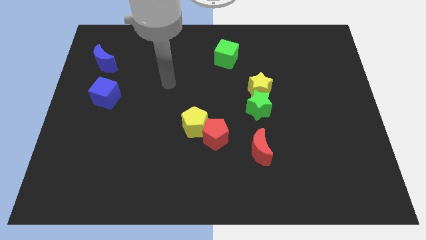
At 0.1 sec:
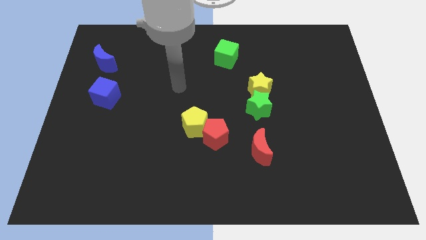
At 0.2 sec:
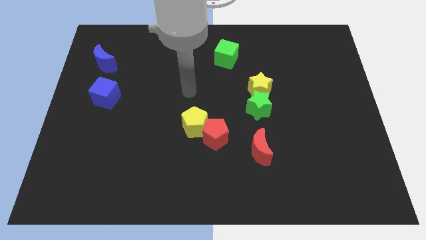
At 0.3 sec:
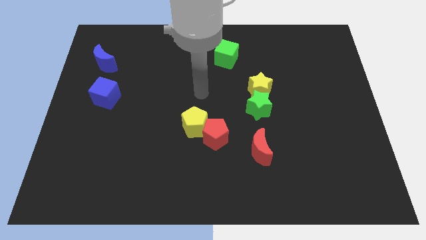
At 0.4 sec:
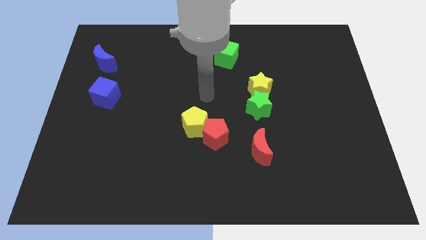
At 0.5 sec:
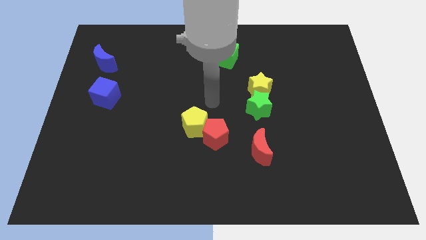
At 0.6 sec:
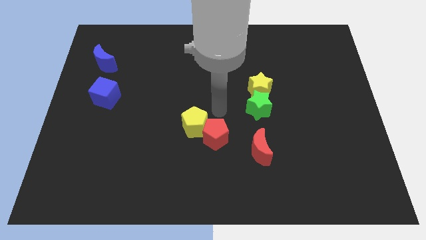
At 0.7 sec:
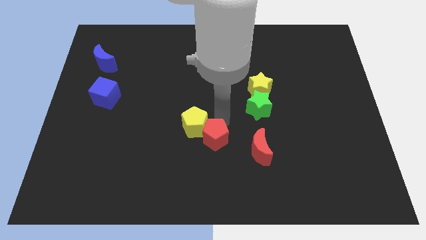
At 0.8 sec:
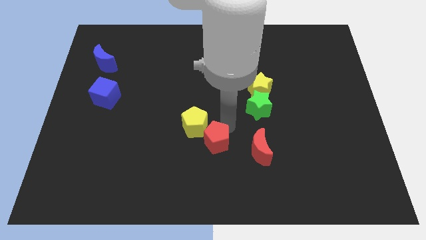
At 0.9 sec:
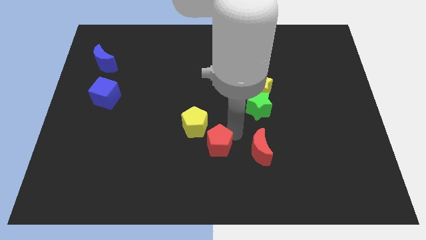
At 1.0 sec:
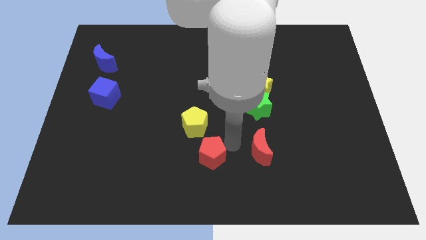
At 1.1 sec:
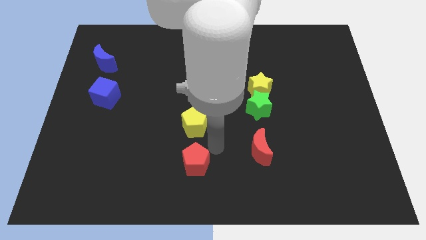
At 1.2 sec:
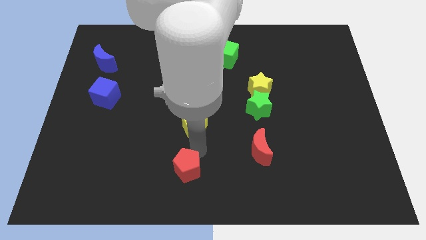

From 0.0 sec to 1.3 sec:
separate the yellow pentagon from the red pentagon

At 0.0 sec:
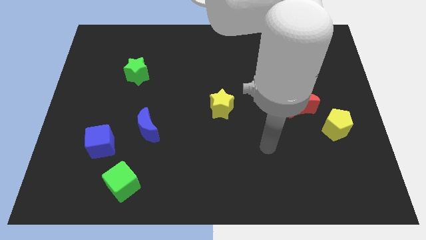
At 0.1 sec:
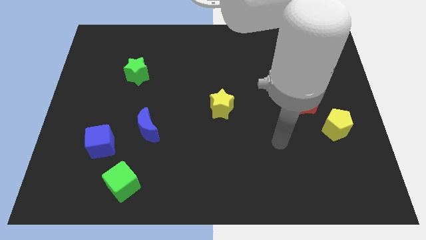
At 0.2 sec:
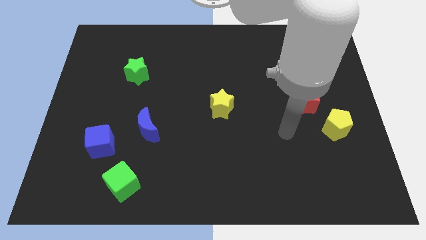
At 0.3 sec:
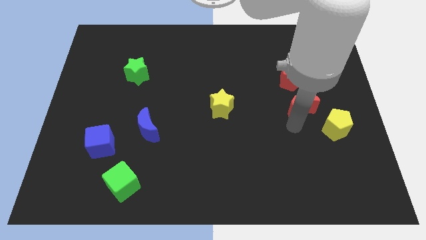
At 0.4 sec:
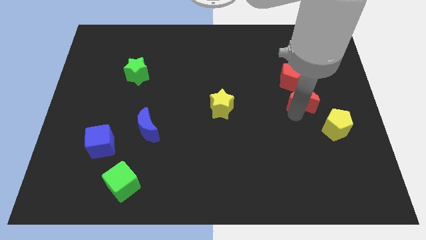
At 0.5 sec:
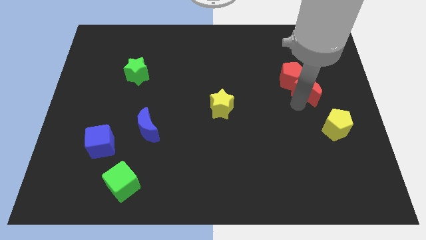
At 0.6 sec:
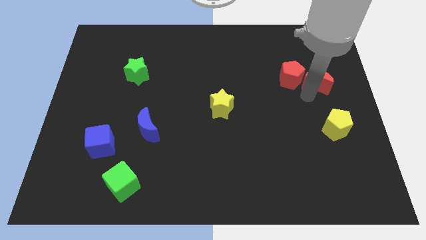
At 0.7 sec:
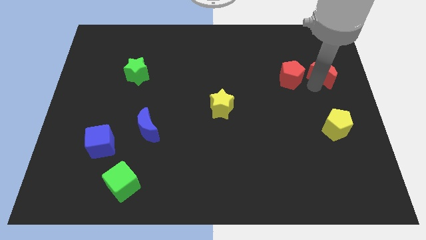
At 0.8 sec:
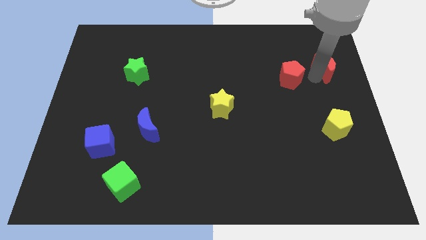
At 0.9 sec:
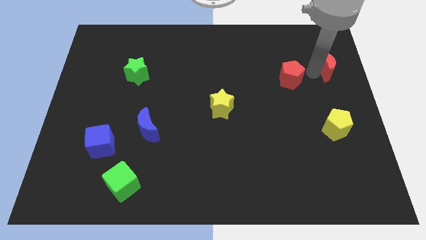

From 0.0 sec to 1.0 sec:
move the red pentagon away from the red moon

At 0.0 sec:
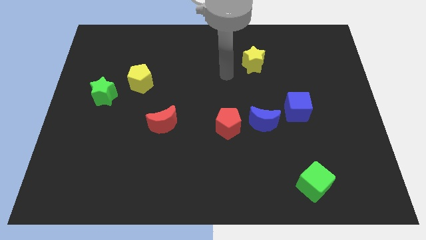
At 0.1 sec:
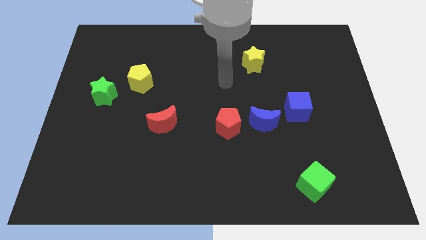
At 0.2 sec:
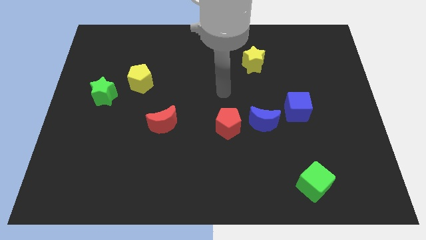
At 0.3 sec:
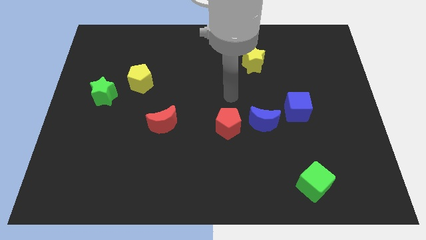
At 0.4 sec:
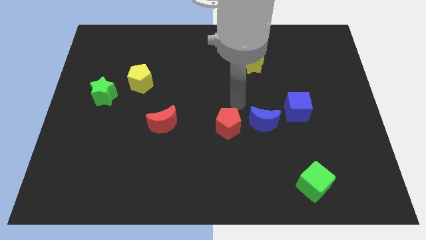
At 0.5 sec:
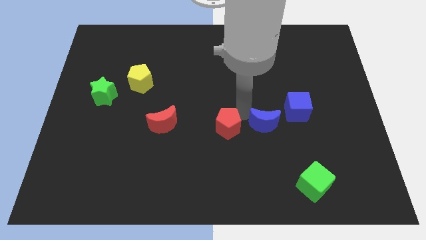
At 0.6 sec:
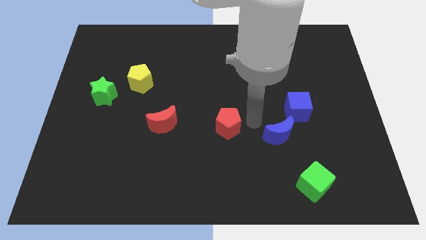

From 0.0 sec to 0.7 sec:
separate the red pentagon from the blue moon

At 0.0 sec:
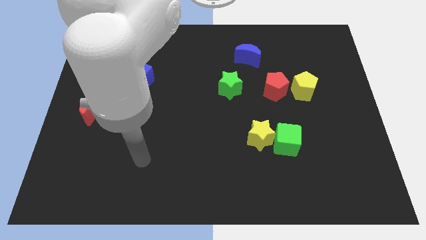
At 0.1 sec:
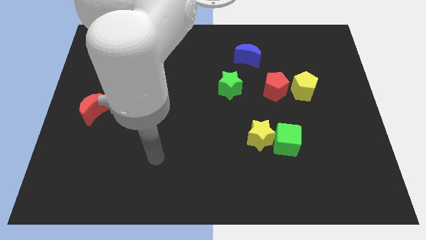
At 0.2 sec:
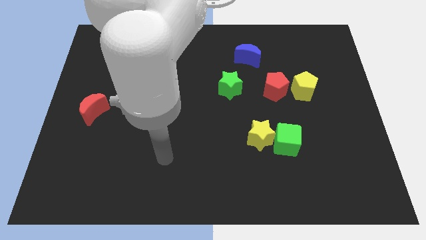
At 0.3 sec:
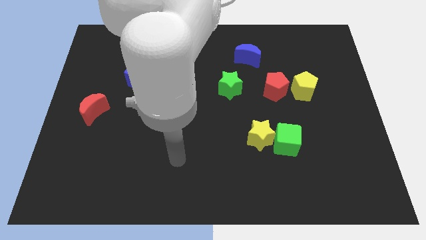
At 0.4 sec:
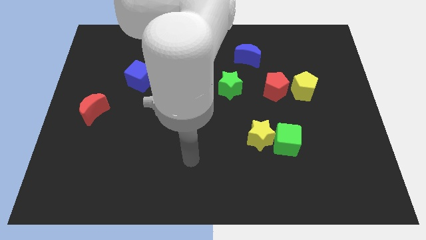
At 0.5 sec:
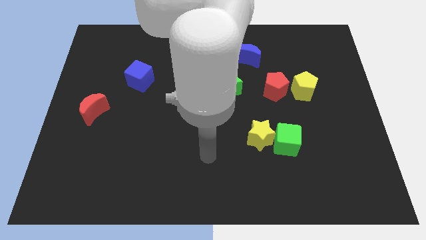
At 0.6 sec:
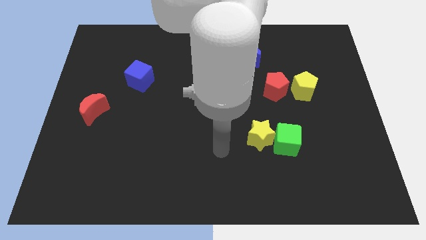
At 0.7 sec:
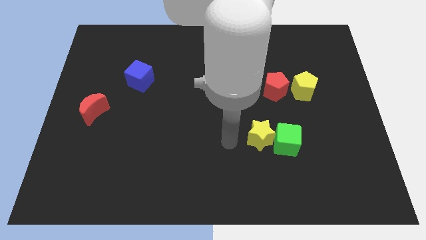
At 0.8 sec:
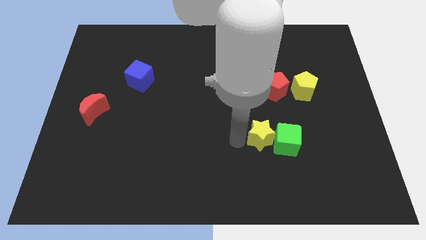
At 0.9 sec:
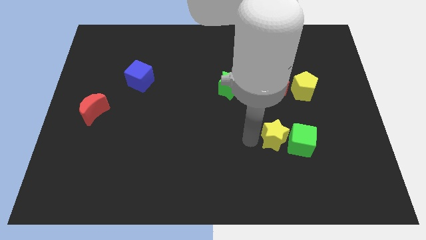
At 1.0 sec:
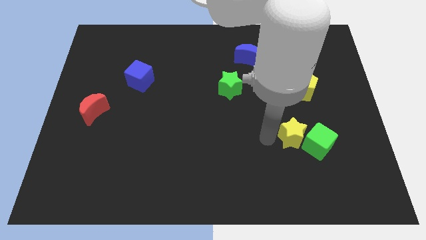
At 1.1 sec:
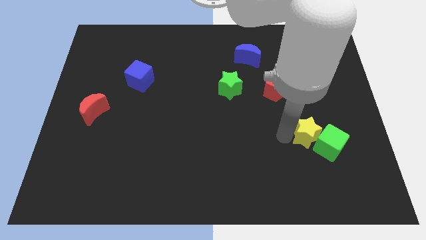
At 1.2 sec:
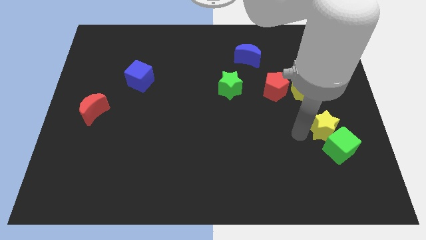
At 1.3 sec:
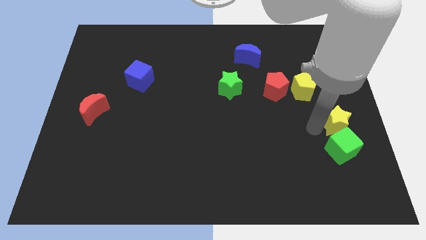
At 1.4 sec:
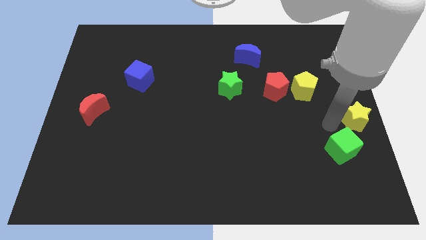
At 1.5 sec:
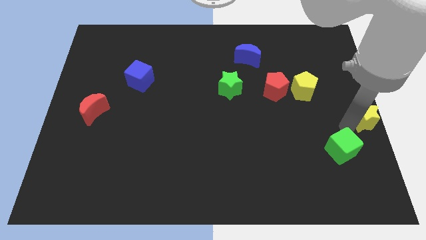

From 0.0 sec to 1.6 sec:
pull the green cube apart from the yellow star

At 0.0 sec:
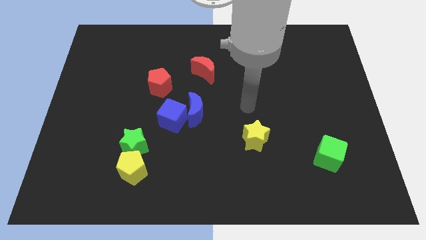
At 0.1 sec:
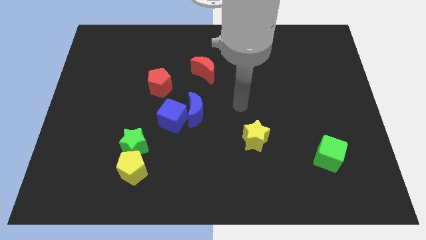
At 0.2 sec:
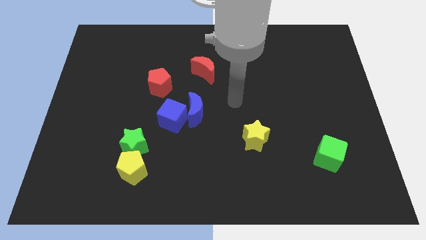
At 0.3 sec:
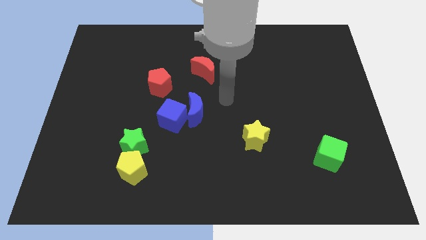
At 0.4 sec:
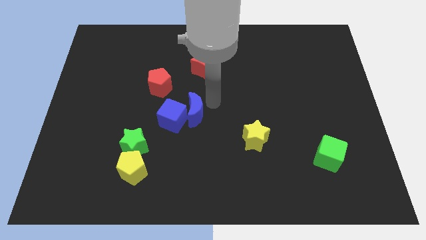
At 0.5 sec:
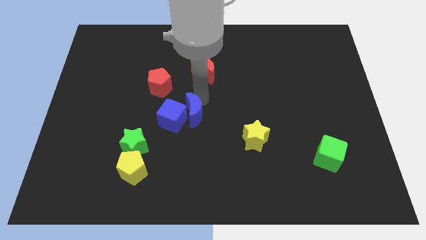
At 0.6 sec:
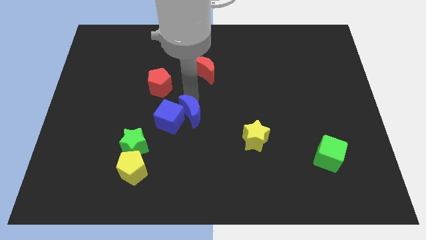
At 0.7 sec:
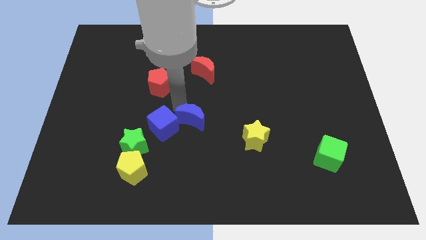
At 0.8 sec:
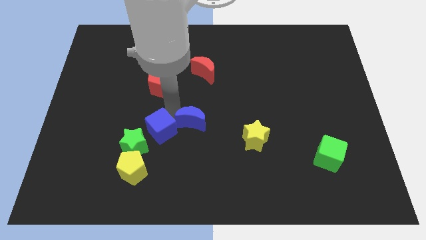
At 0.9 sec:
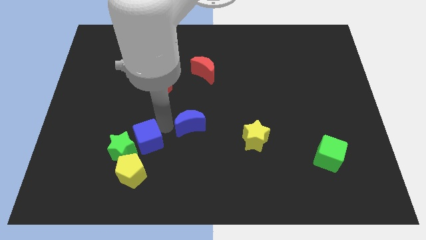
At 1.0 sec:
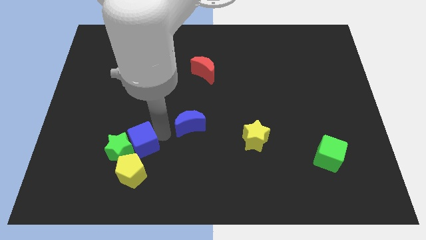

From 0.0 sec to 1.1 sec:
pull the blue moon apart from the blue cube

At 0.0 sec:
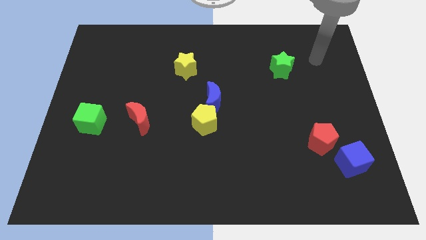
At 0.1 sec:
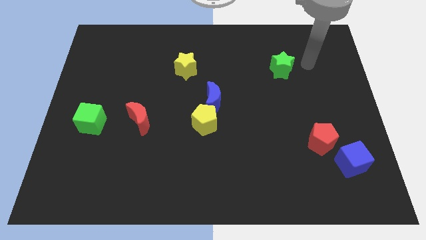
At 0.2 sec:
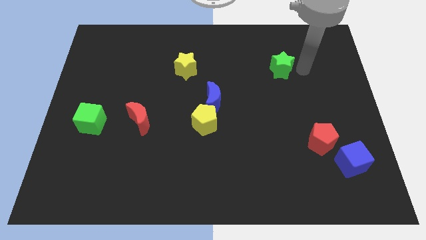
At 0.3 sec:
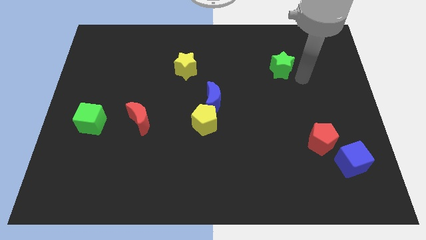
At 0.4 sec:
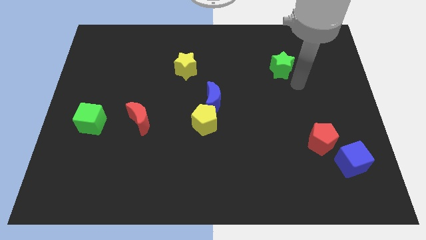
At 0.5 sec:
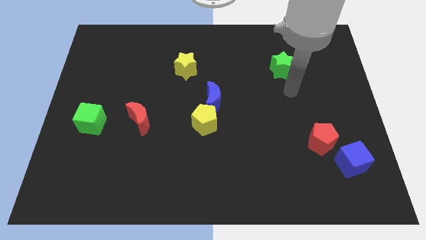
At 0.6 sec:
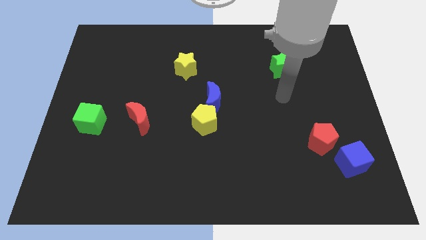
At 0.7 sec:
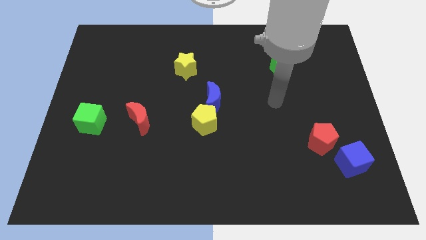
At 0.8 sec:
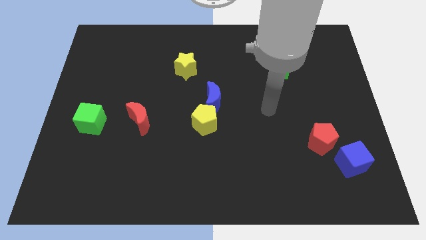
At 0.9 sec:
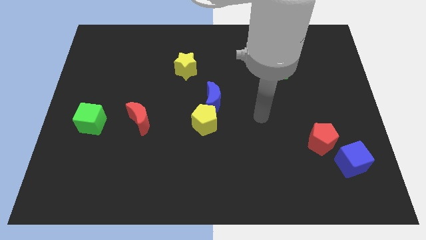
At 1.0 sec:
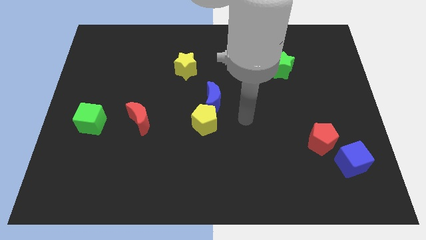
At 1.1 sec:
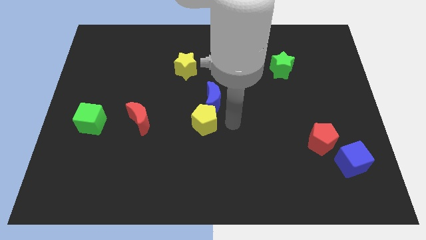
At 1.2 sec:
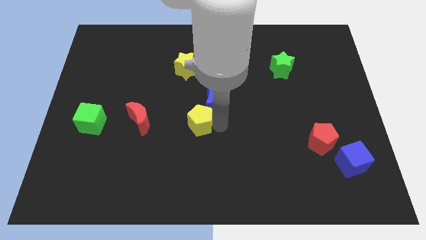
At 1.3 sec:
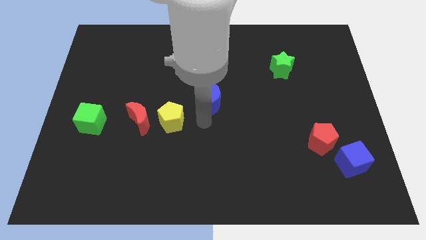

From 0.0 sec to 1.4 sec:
separate the blue moon from the yellow pentagon

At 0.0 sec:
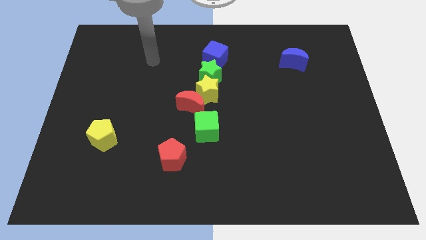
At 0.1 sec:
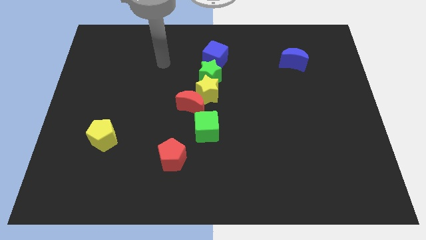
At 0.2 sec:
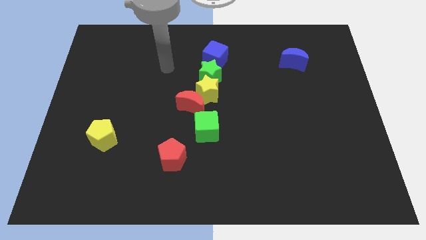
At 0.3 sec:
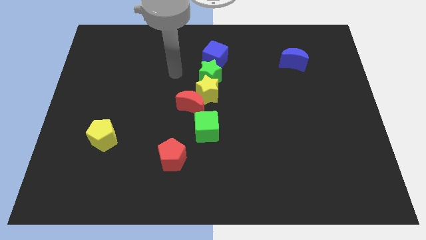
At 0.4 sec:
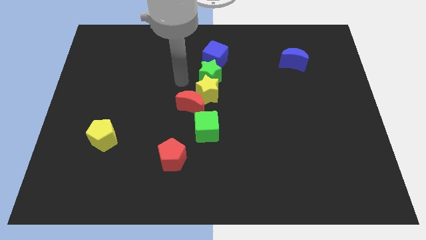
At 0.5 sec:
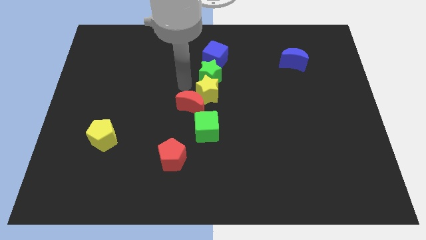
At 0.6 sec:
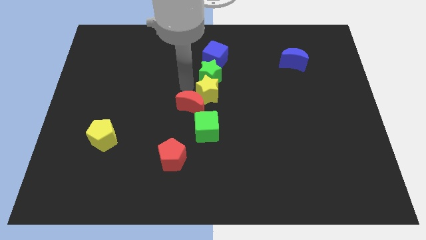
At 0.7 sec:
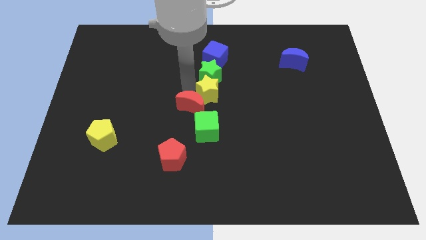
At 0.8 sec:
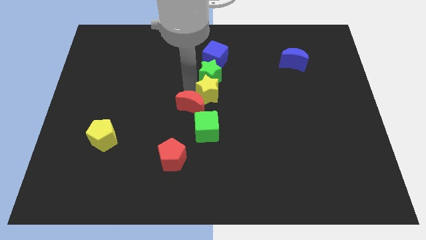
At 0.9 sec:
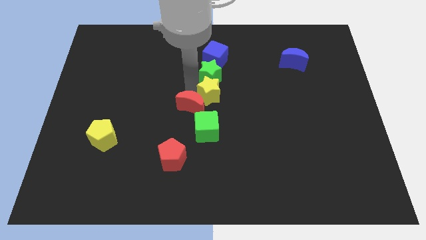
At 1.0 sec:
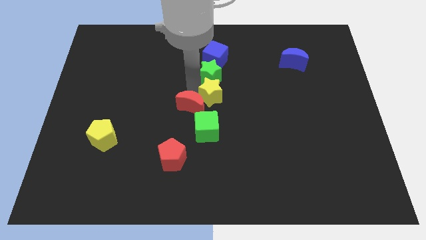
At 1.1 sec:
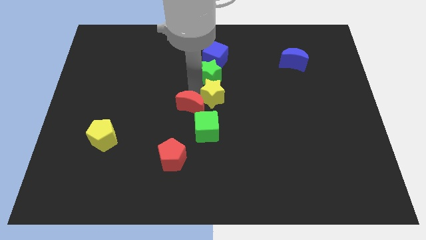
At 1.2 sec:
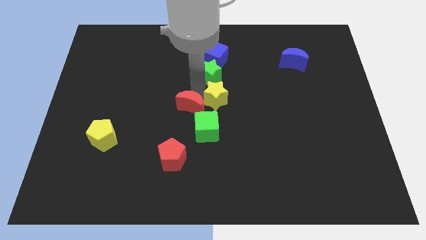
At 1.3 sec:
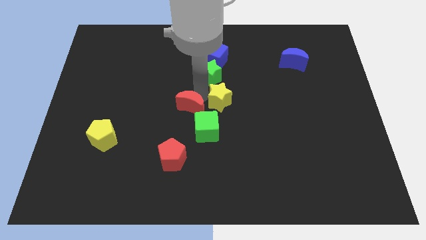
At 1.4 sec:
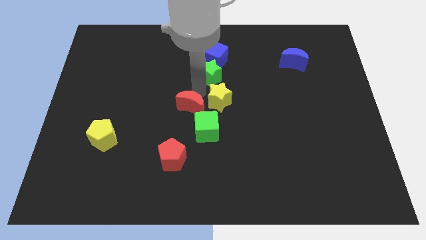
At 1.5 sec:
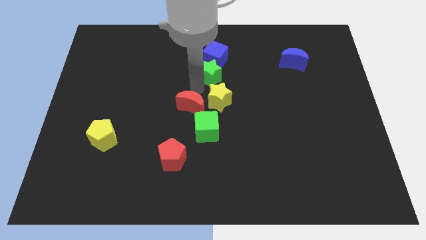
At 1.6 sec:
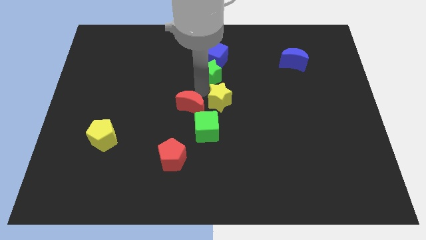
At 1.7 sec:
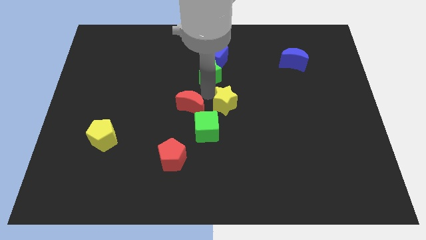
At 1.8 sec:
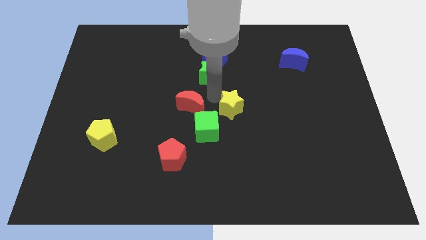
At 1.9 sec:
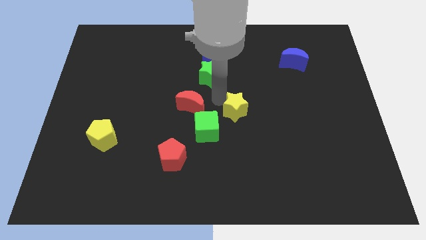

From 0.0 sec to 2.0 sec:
move the yellow star away from the green star and red moon
